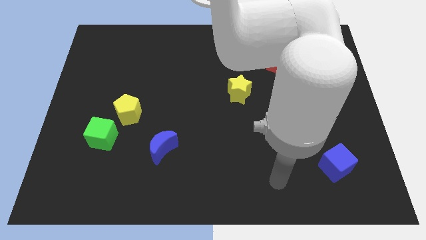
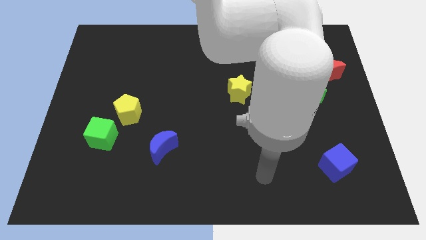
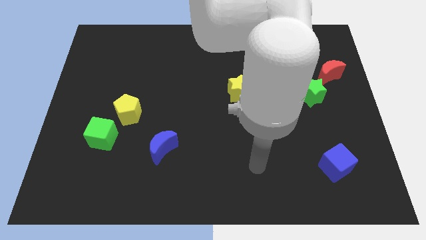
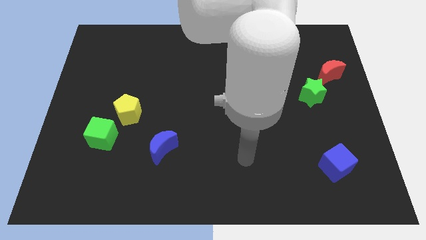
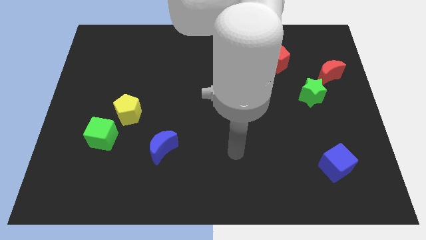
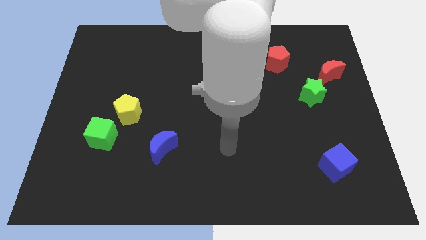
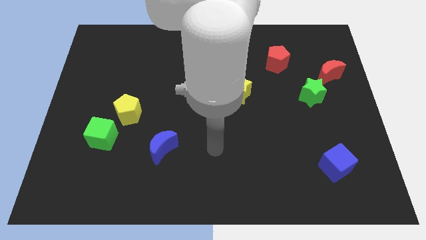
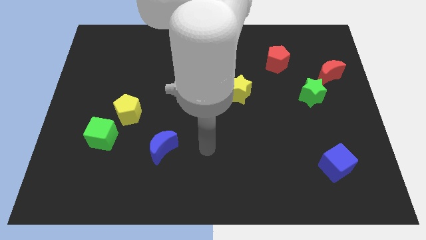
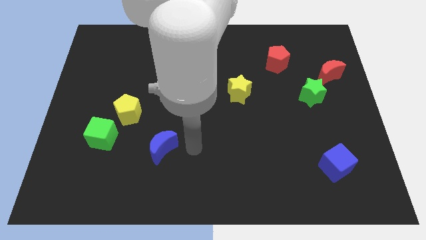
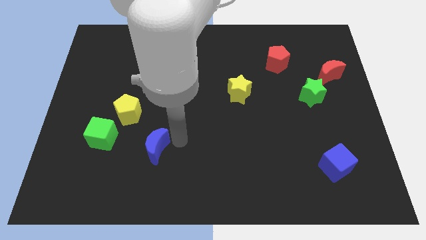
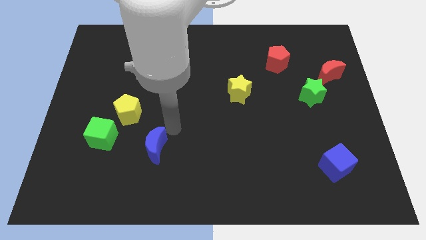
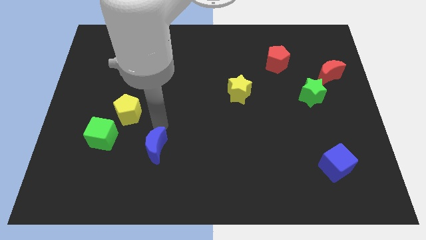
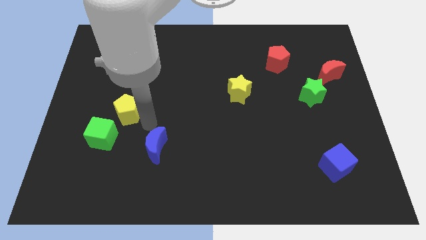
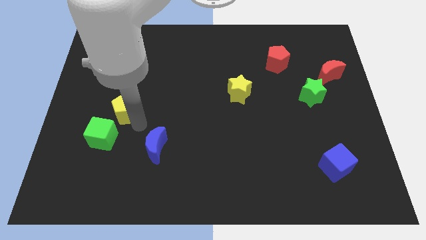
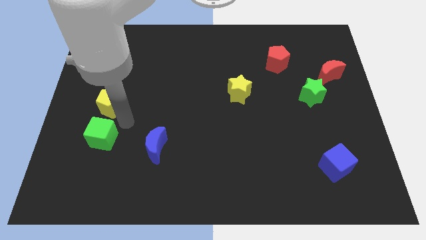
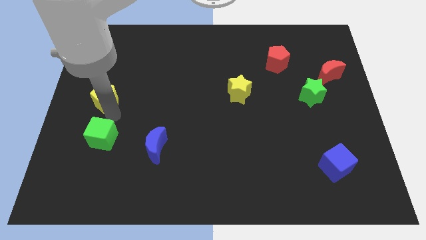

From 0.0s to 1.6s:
pull the green cube apart from the yellow pentagon

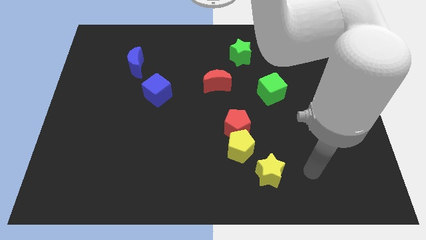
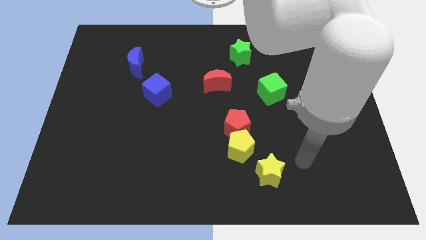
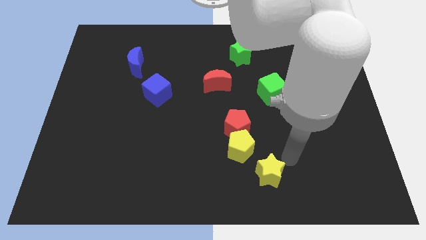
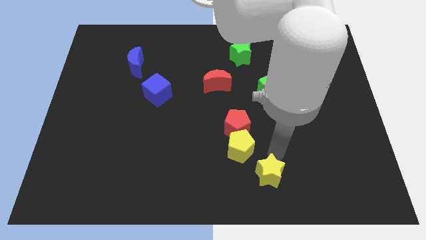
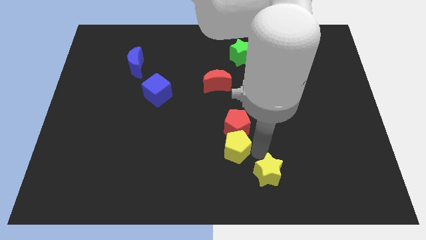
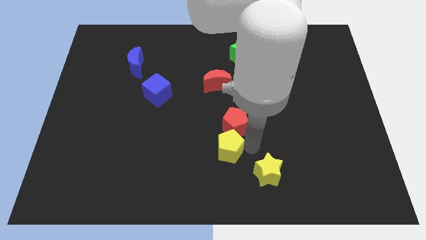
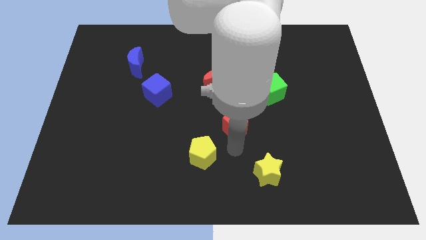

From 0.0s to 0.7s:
separate the red pentagon from the yellow pentagon

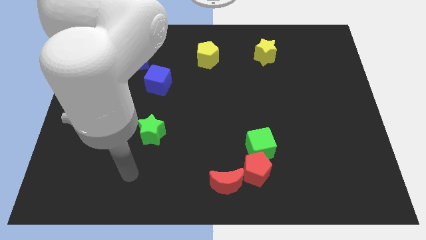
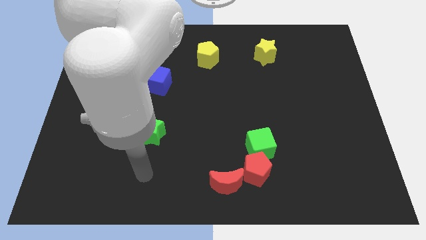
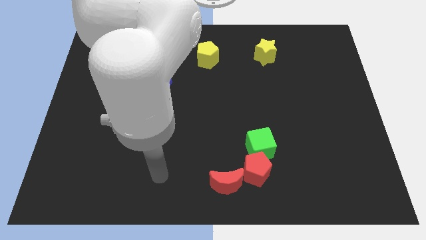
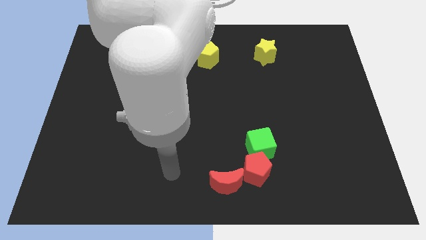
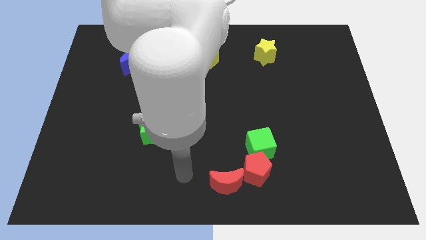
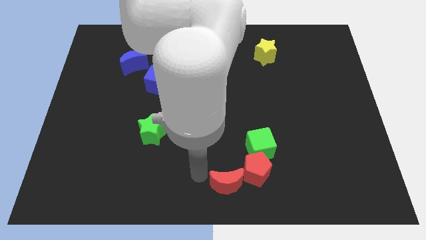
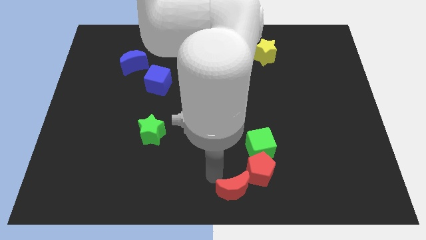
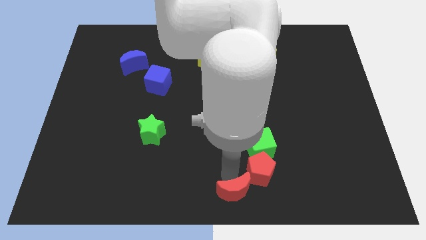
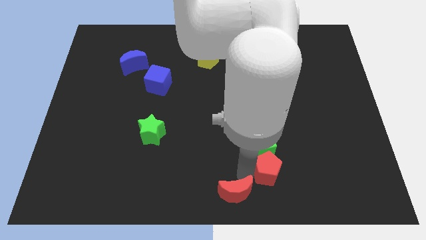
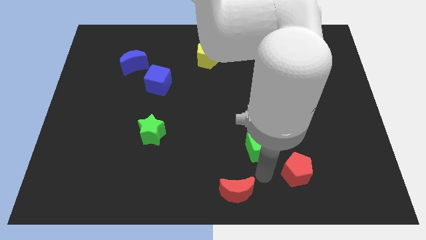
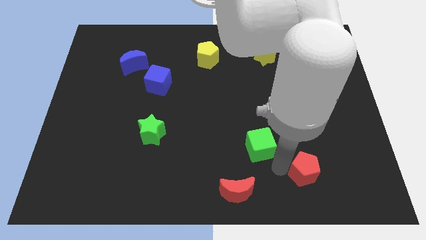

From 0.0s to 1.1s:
move the green cube away from the red pentagon

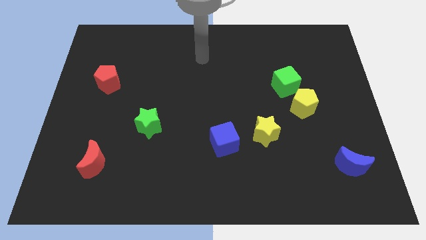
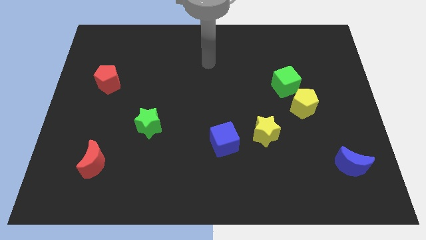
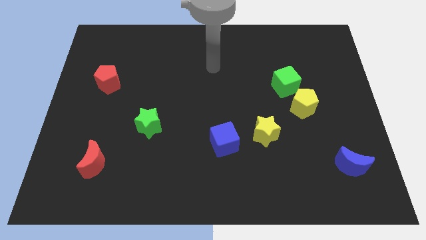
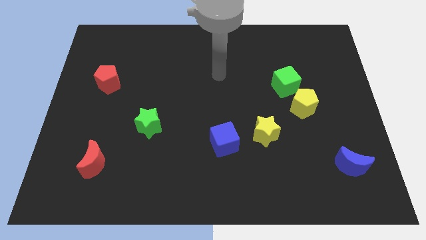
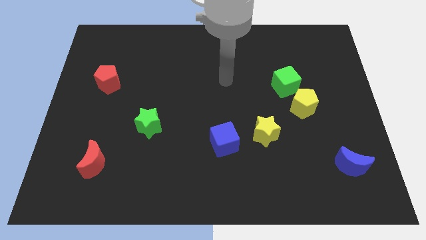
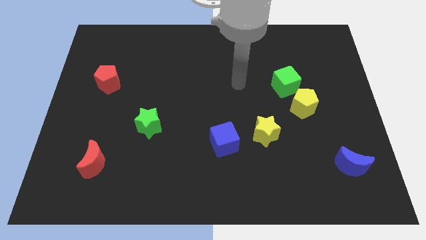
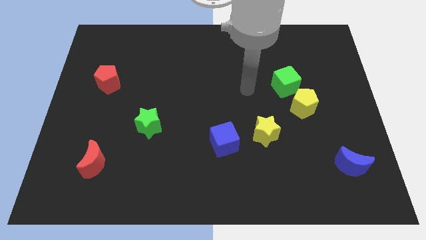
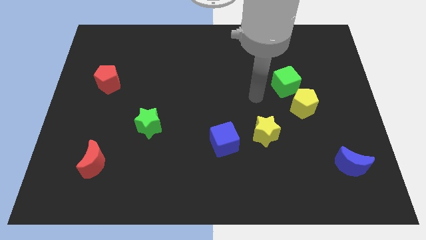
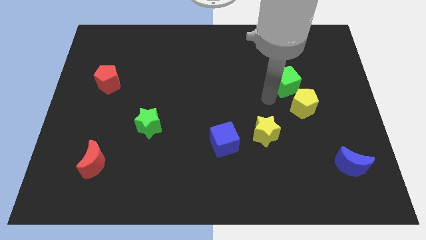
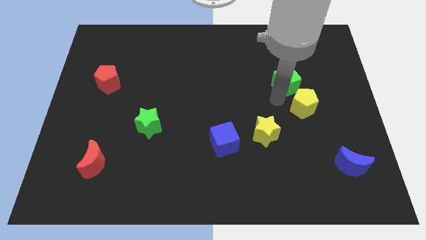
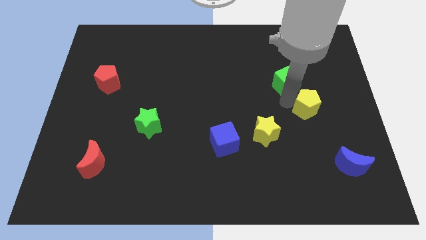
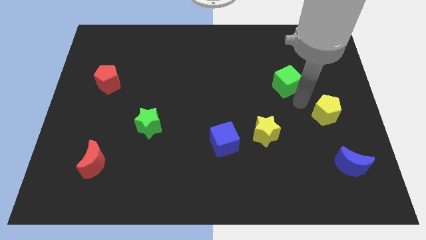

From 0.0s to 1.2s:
separate the green cube from the yellow pentagon

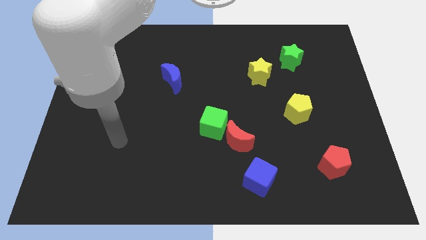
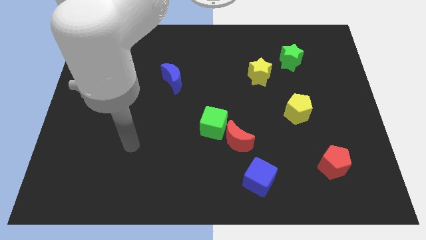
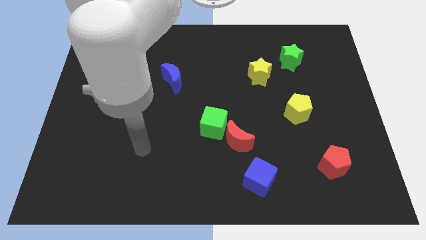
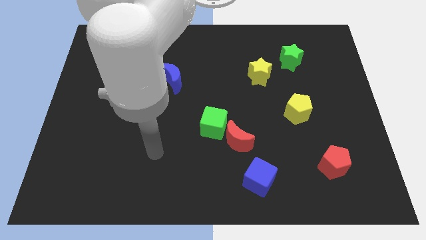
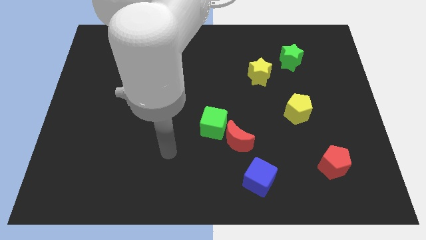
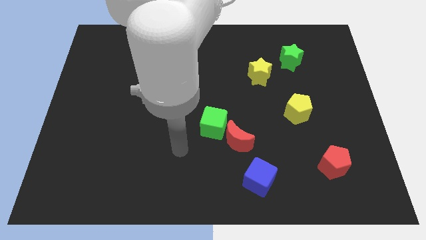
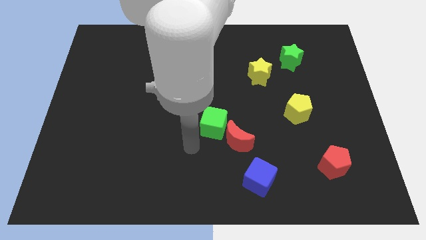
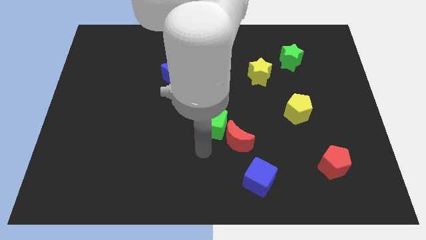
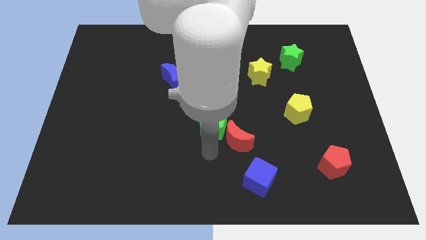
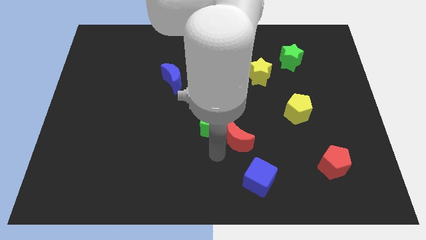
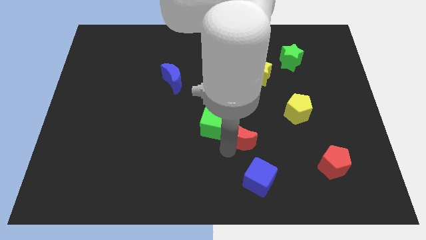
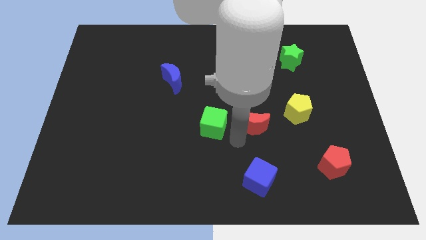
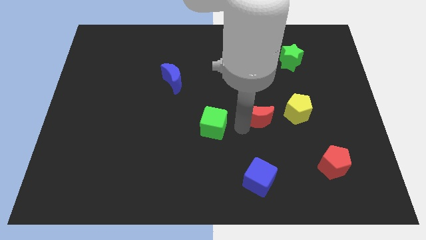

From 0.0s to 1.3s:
pull the green cube apart from the red moon

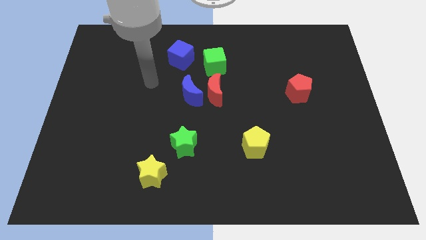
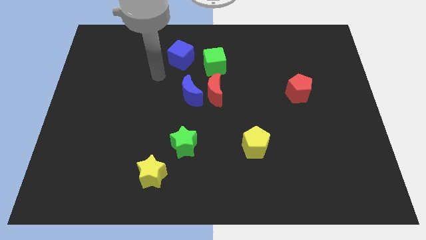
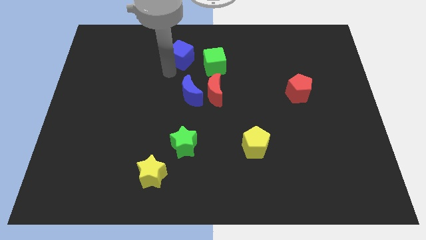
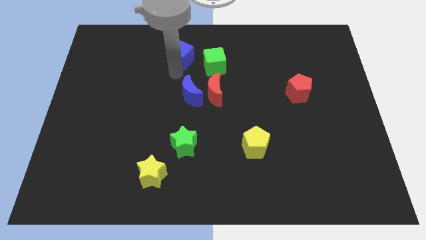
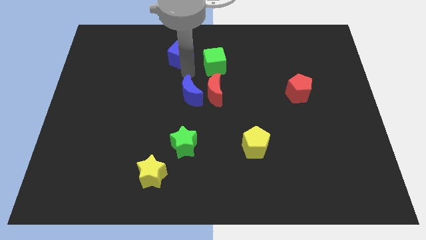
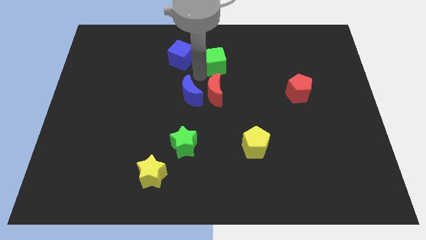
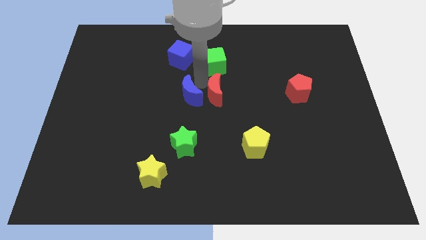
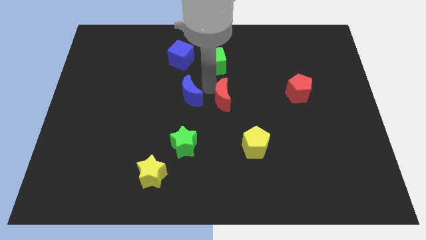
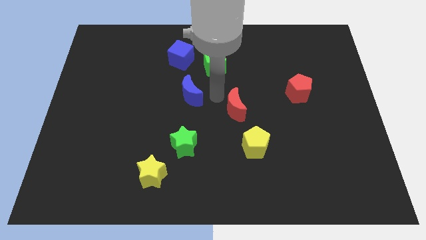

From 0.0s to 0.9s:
separate the blue moon from the red moon

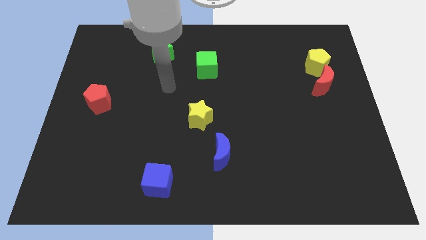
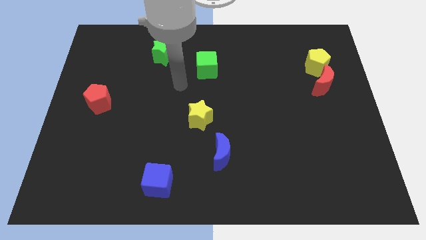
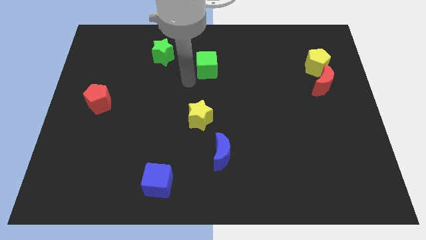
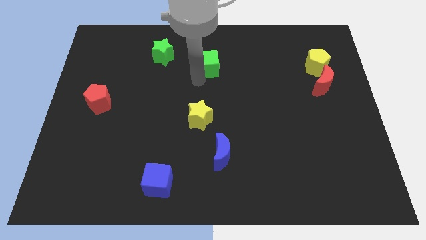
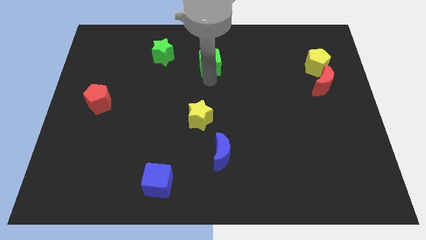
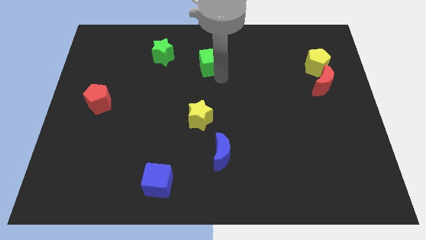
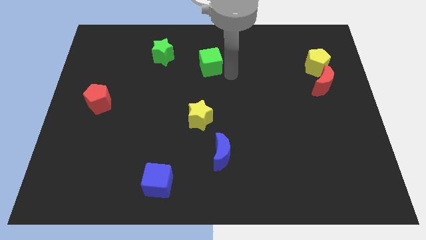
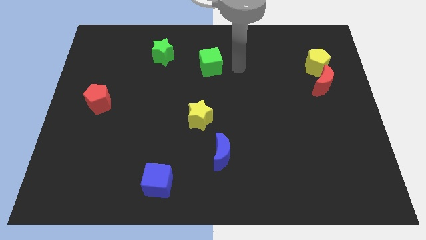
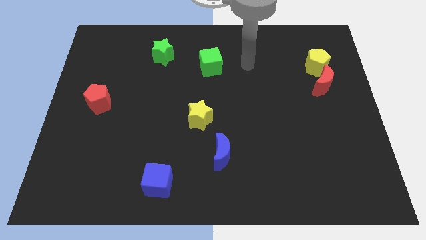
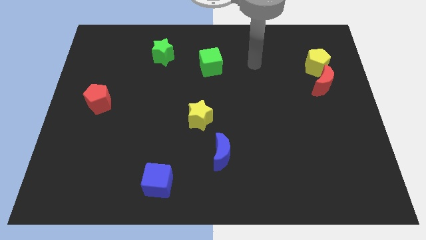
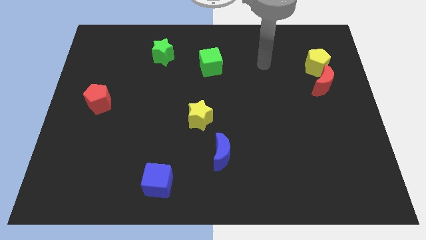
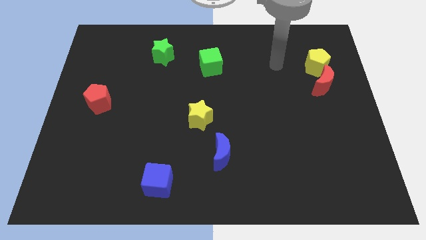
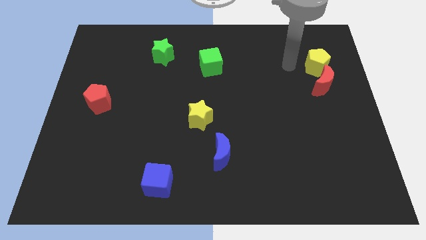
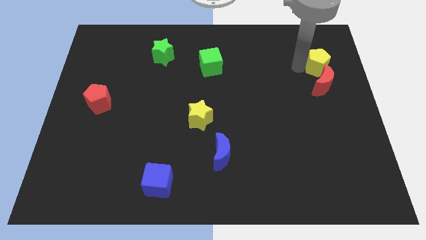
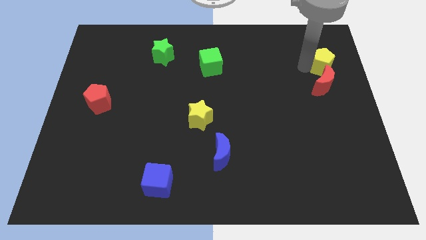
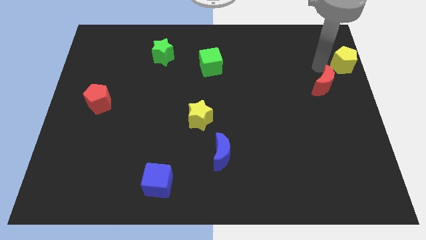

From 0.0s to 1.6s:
pull the red moon apart from the yellow pentagon

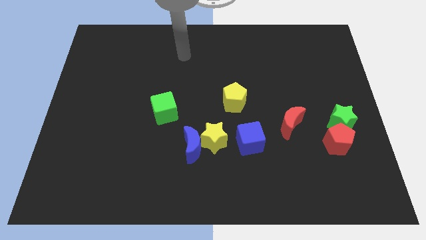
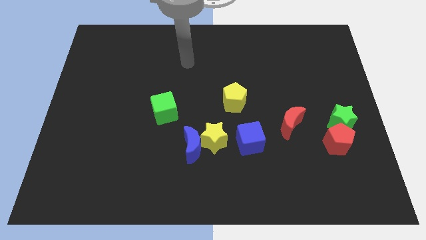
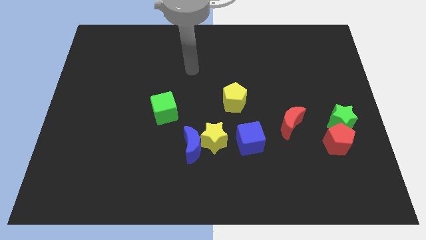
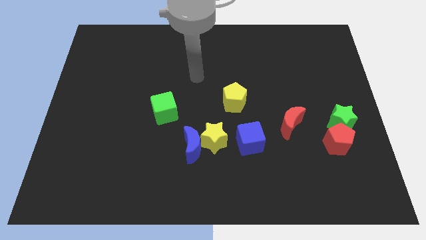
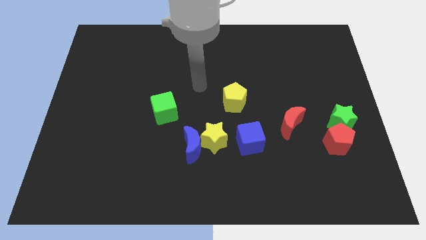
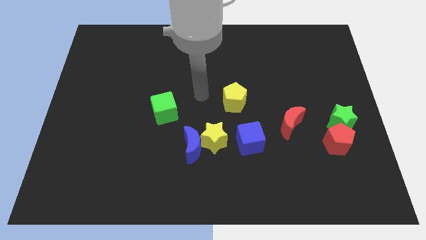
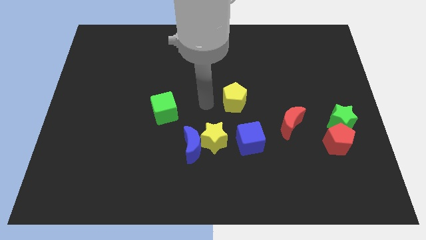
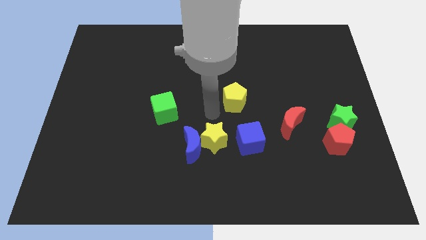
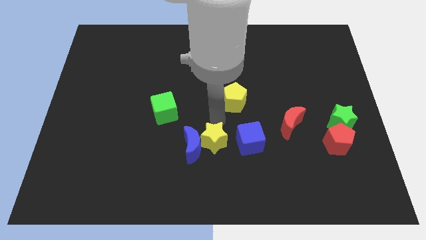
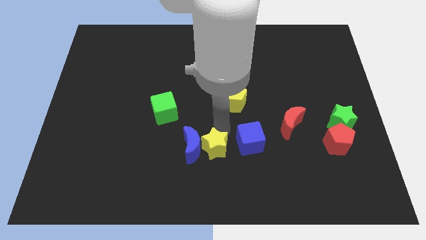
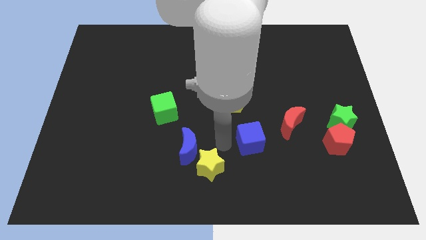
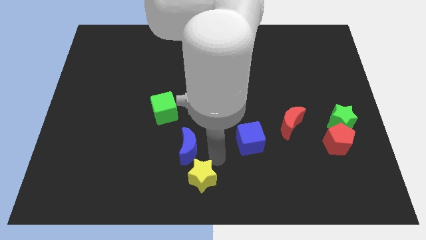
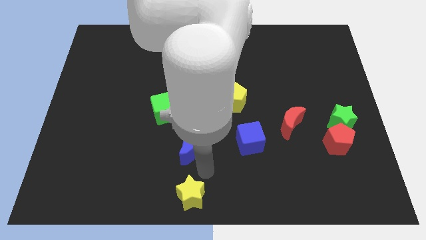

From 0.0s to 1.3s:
pull the blue moon apart from the yellow star
